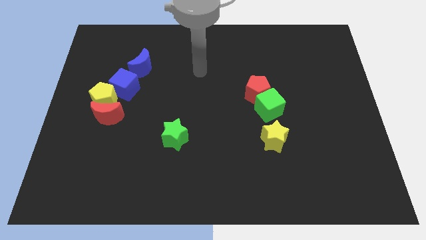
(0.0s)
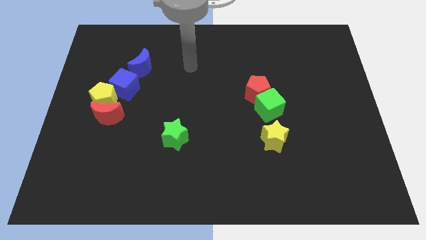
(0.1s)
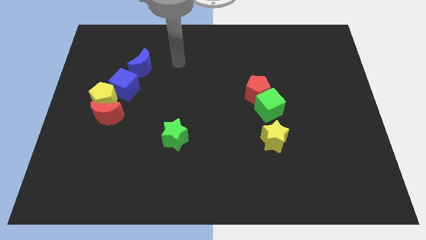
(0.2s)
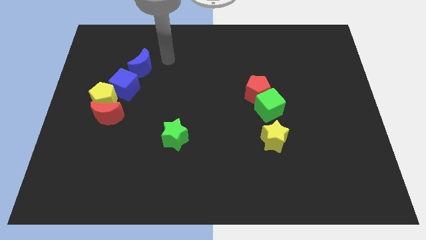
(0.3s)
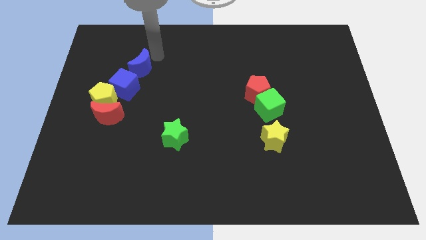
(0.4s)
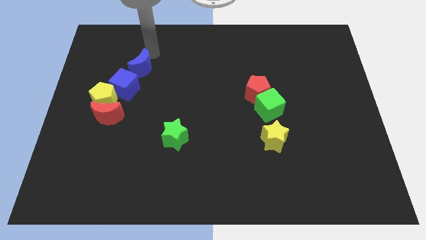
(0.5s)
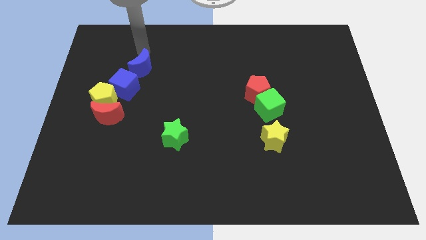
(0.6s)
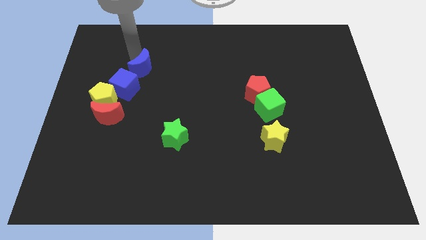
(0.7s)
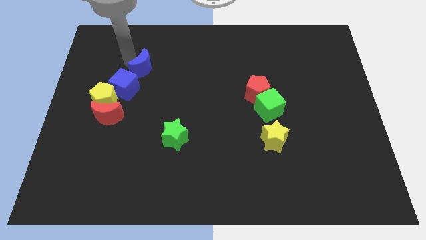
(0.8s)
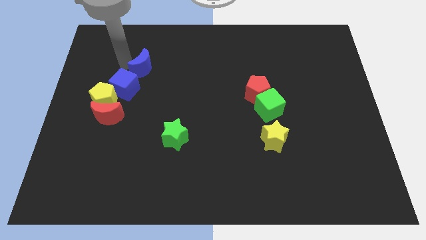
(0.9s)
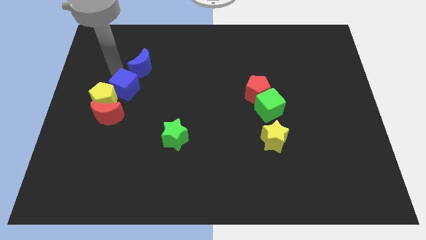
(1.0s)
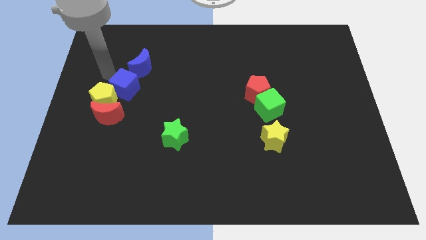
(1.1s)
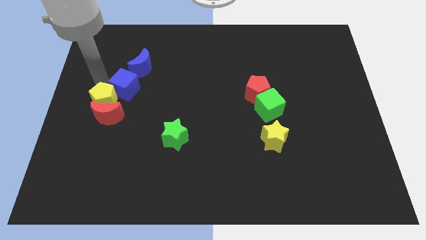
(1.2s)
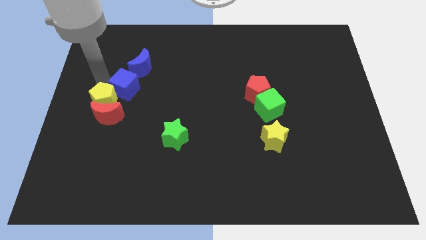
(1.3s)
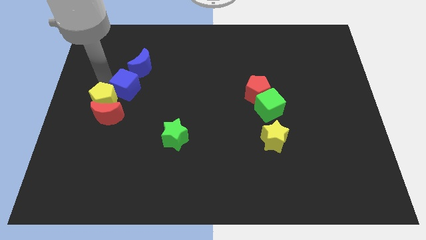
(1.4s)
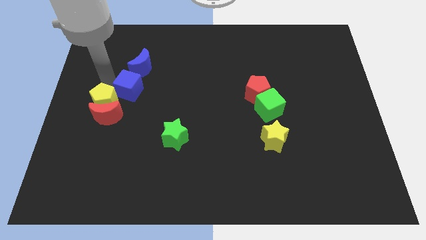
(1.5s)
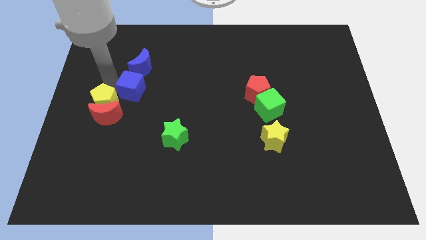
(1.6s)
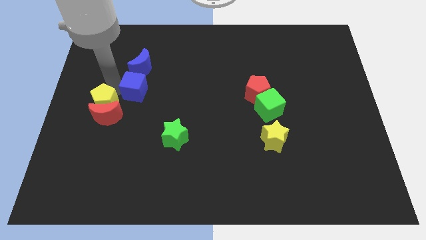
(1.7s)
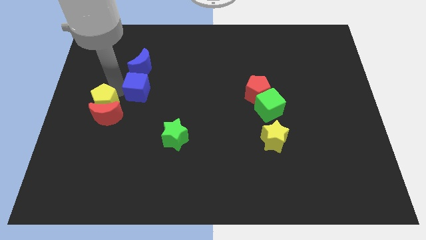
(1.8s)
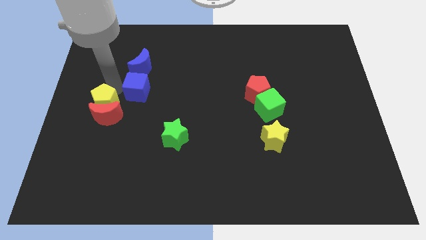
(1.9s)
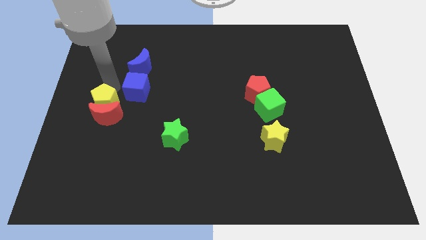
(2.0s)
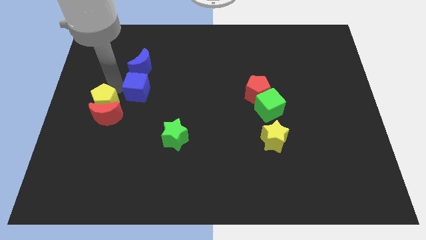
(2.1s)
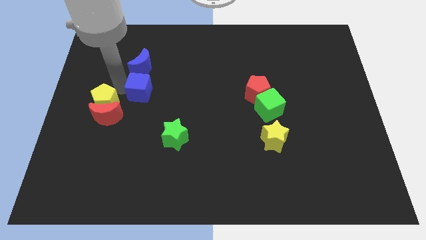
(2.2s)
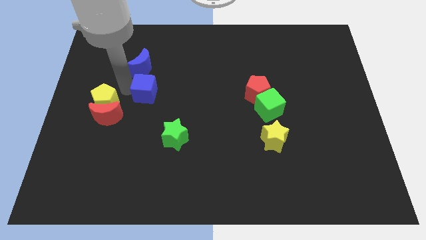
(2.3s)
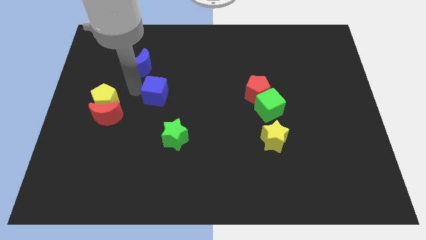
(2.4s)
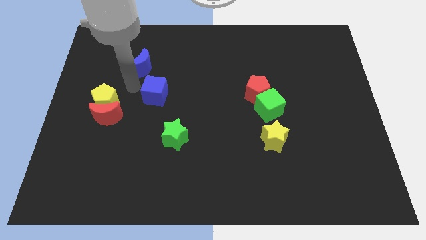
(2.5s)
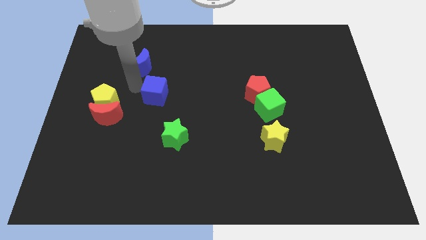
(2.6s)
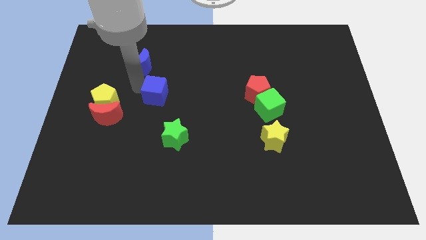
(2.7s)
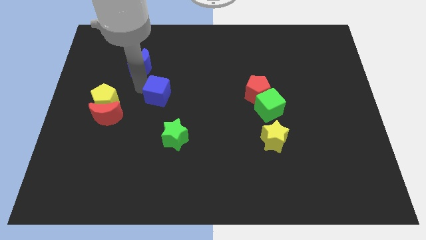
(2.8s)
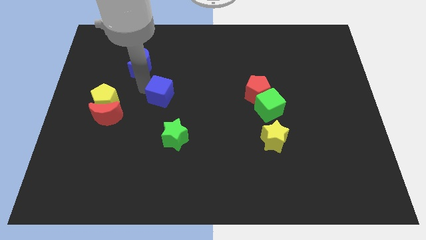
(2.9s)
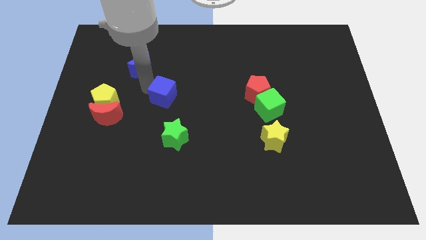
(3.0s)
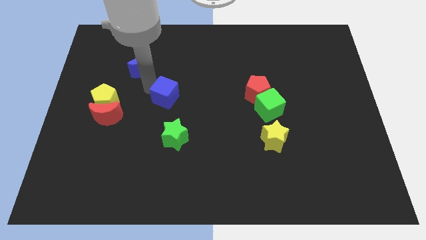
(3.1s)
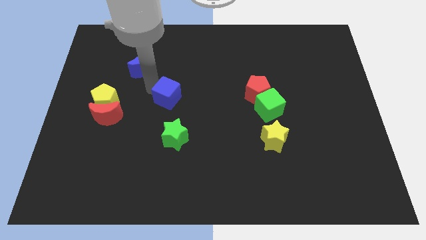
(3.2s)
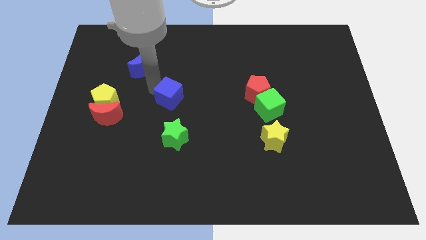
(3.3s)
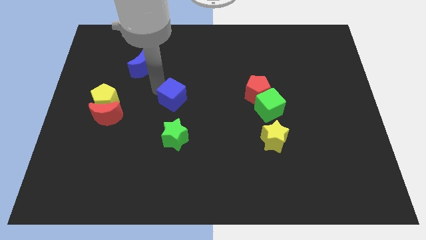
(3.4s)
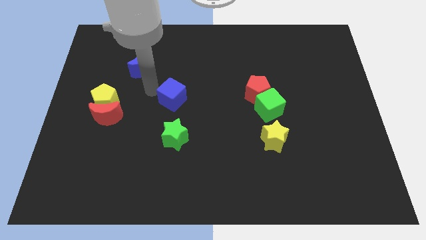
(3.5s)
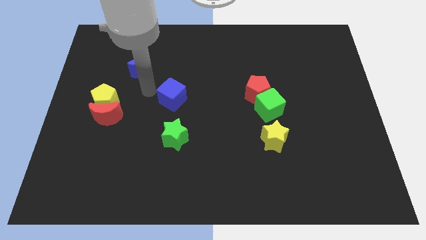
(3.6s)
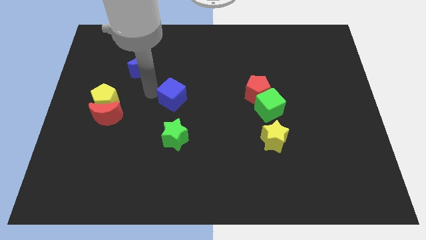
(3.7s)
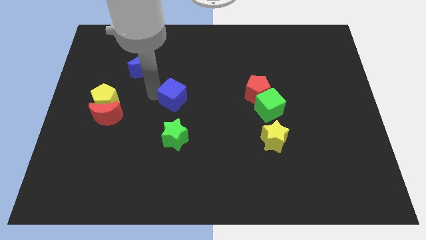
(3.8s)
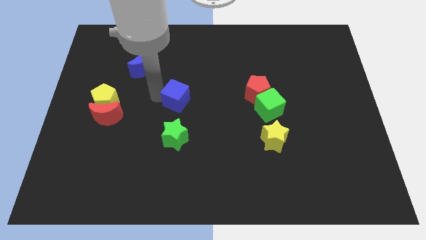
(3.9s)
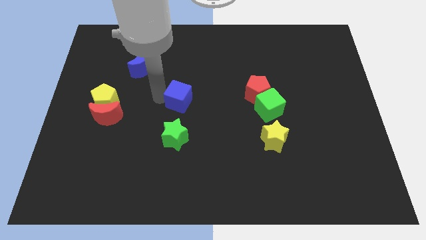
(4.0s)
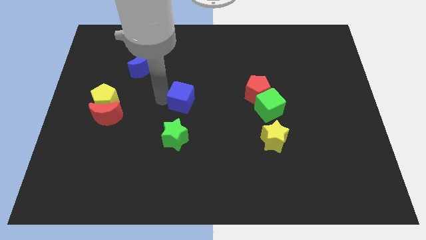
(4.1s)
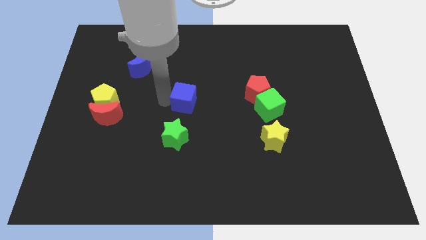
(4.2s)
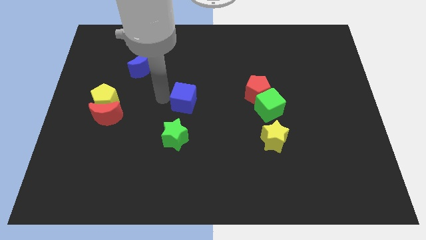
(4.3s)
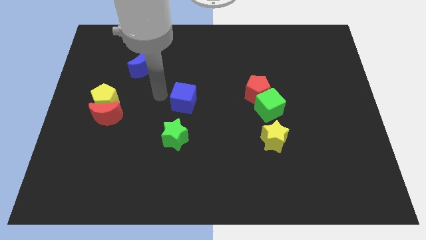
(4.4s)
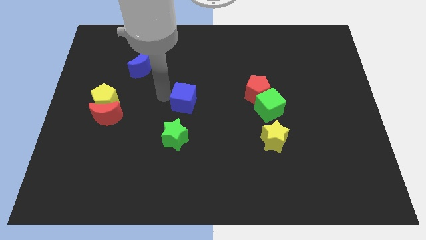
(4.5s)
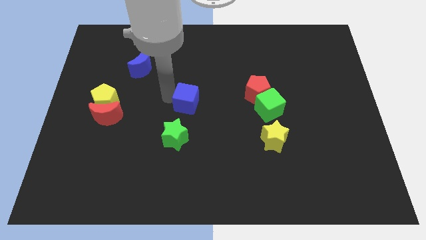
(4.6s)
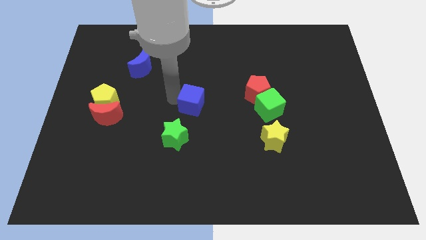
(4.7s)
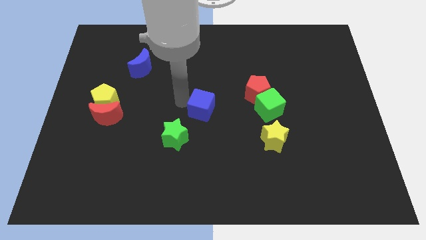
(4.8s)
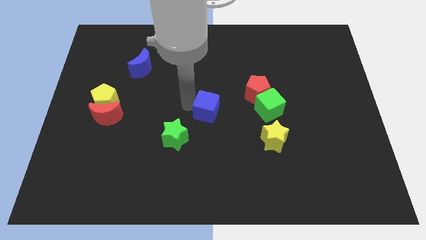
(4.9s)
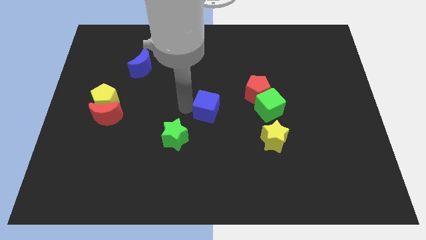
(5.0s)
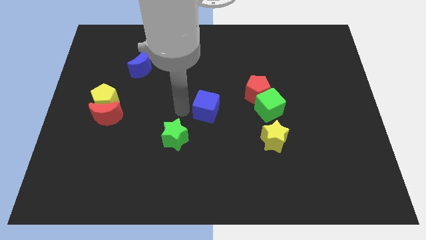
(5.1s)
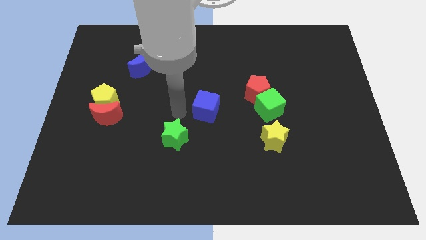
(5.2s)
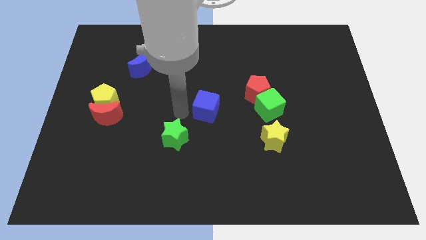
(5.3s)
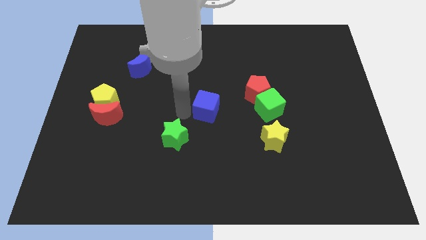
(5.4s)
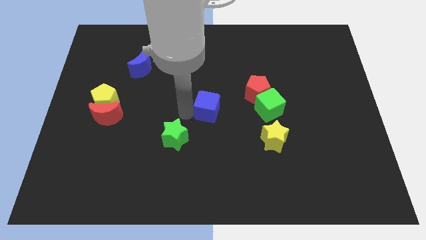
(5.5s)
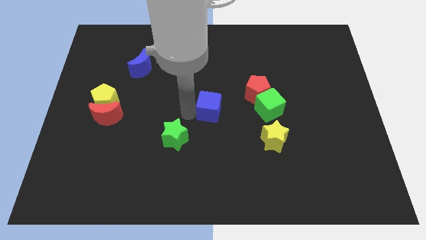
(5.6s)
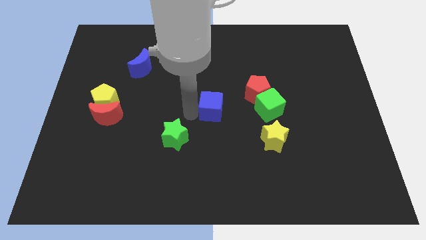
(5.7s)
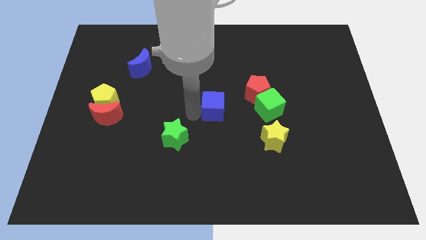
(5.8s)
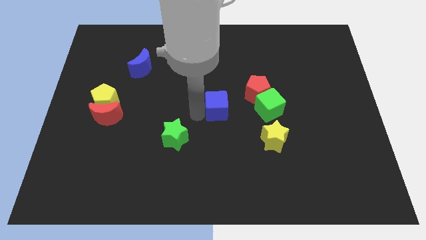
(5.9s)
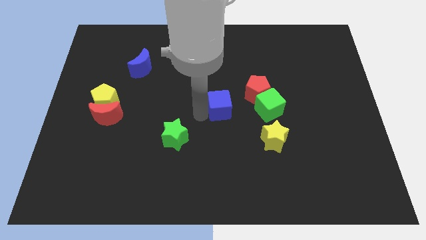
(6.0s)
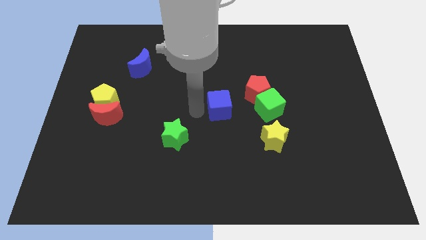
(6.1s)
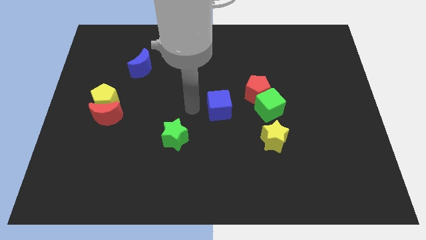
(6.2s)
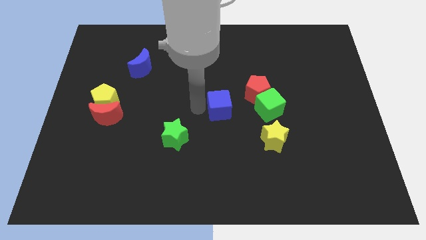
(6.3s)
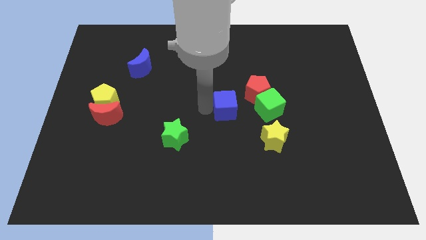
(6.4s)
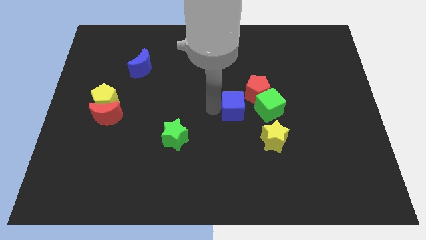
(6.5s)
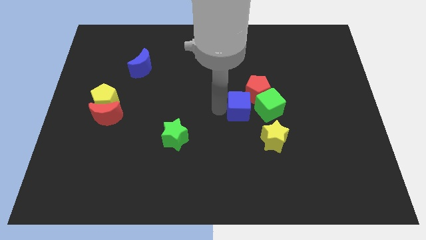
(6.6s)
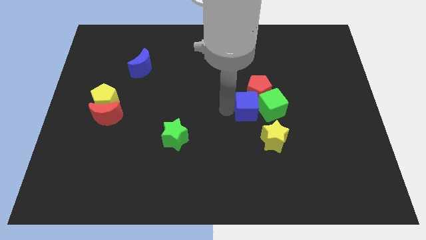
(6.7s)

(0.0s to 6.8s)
push the blue cube next to the green cube
